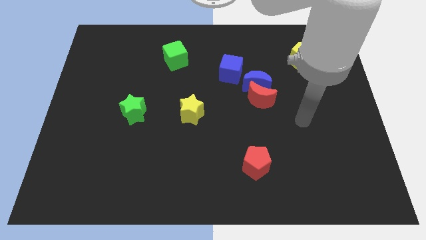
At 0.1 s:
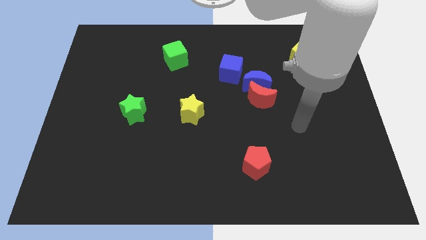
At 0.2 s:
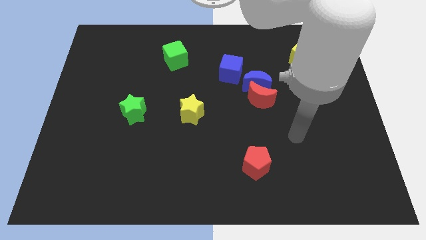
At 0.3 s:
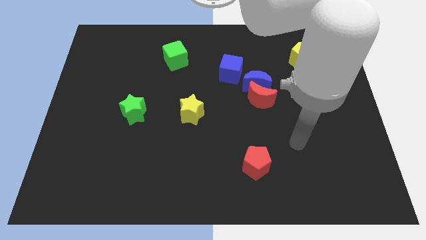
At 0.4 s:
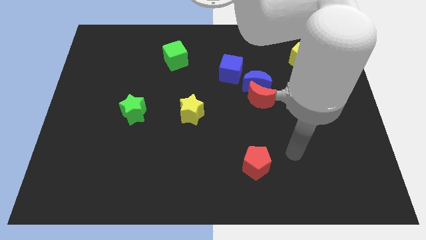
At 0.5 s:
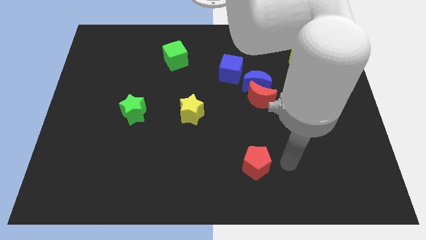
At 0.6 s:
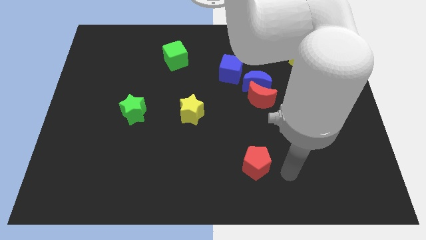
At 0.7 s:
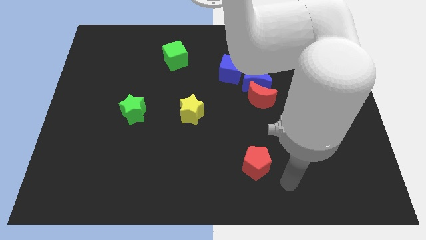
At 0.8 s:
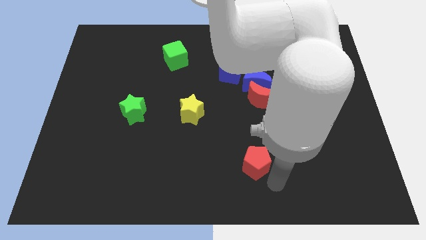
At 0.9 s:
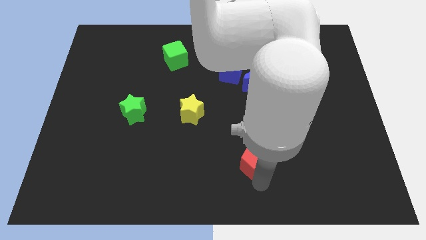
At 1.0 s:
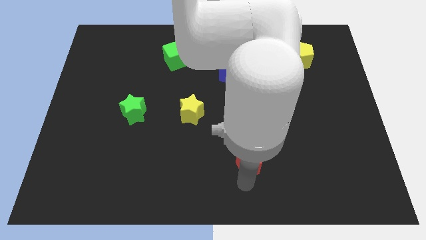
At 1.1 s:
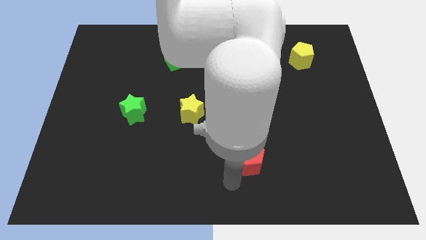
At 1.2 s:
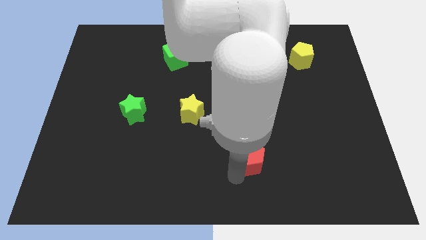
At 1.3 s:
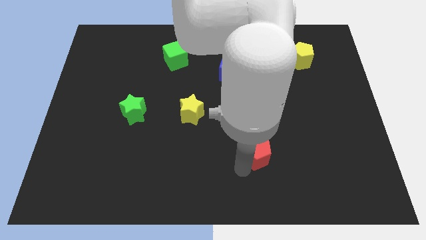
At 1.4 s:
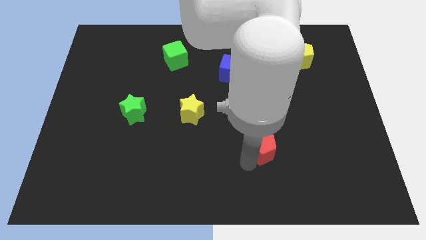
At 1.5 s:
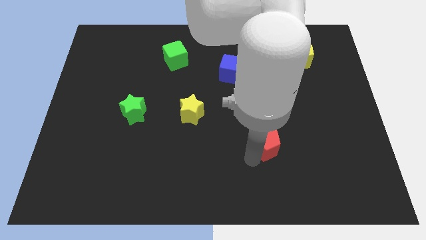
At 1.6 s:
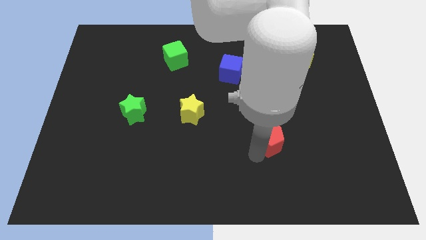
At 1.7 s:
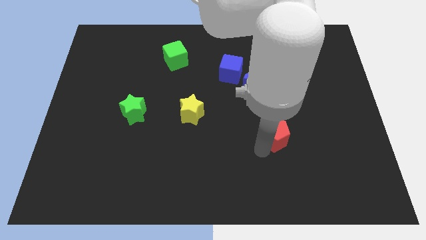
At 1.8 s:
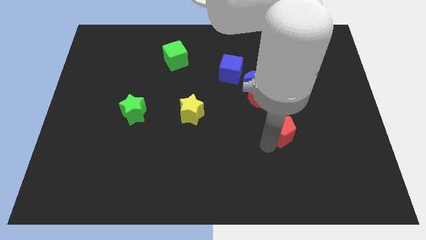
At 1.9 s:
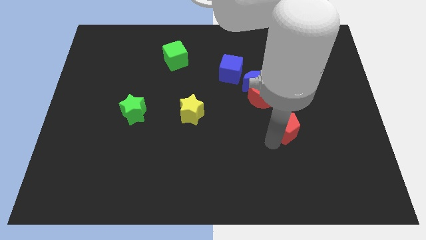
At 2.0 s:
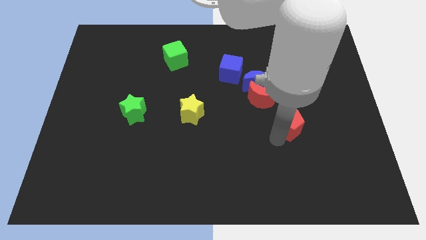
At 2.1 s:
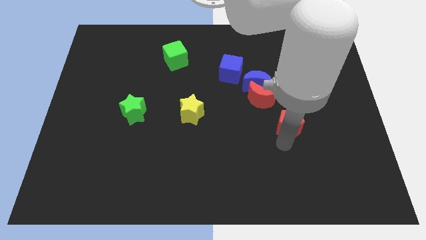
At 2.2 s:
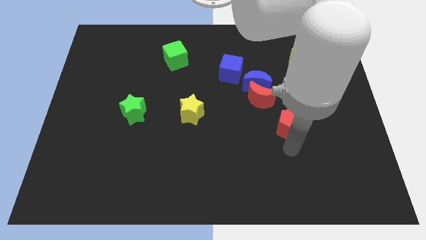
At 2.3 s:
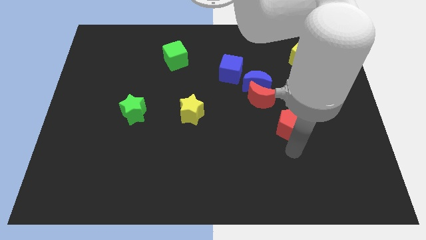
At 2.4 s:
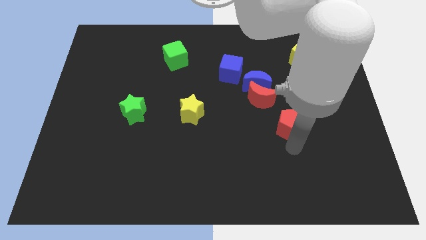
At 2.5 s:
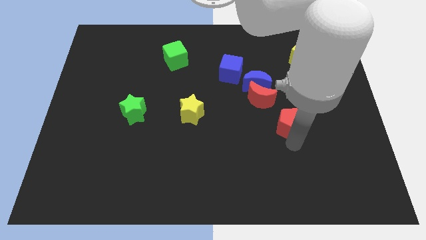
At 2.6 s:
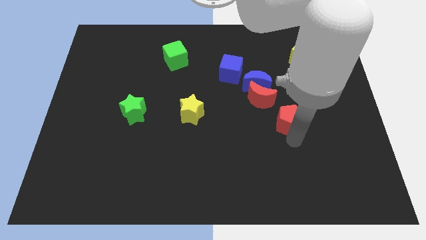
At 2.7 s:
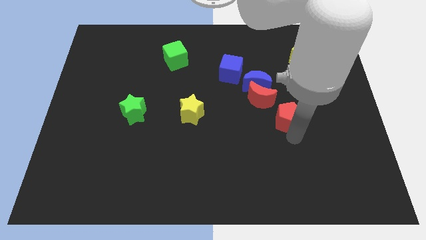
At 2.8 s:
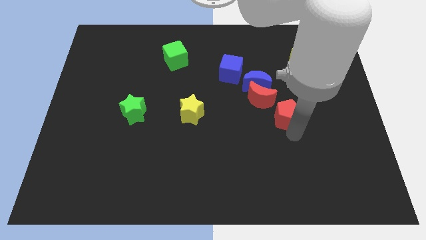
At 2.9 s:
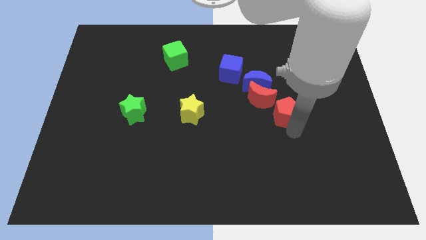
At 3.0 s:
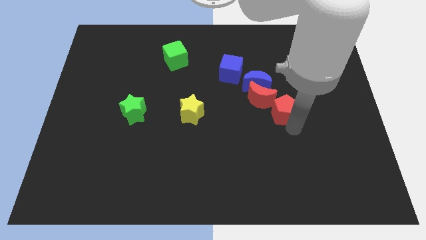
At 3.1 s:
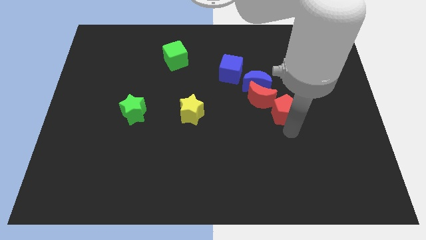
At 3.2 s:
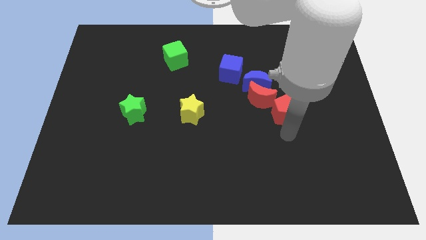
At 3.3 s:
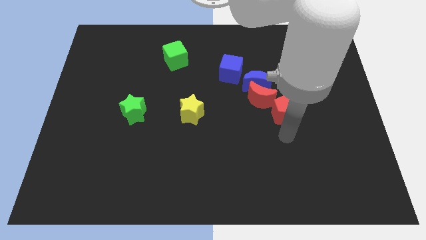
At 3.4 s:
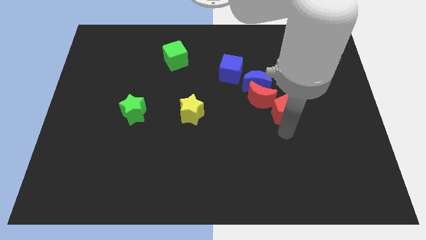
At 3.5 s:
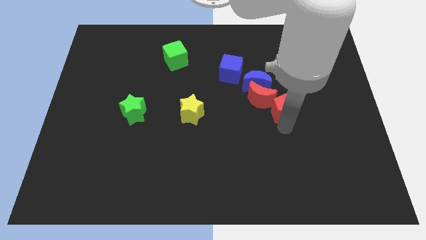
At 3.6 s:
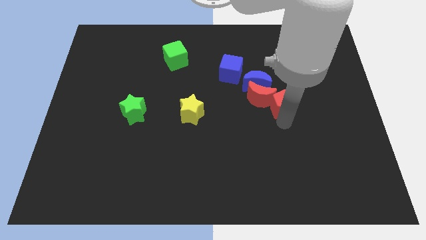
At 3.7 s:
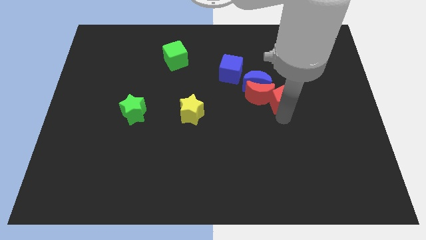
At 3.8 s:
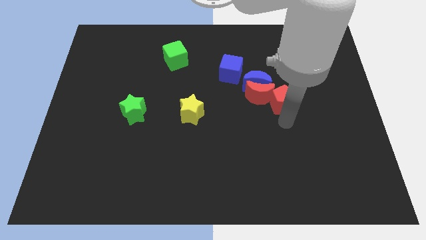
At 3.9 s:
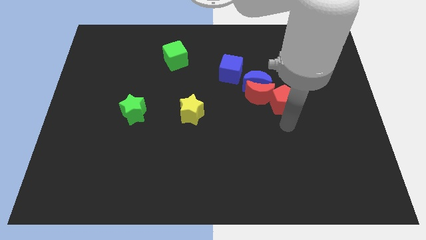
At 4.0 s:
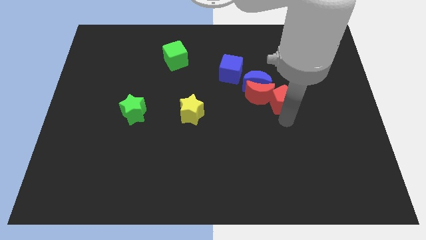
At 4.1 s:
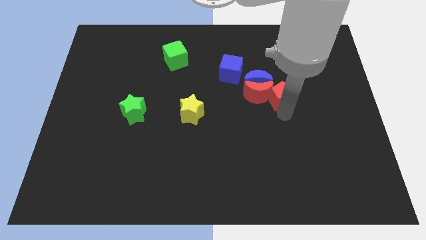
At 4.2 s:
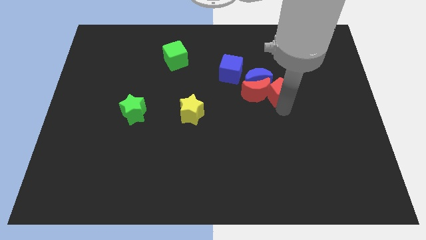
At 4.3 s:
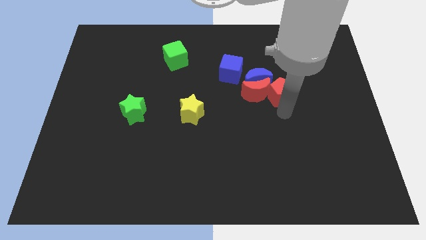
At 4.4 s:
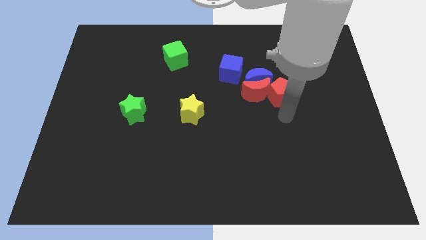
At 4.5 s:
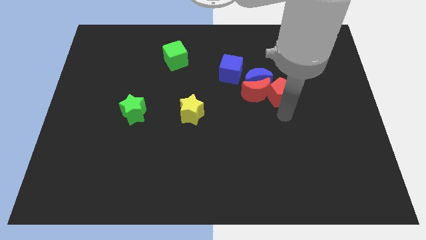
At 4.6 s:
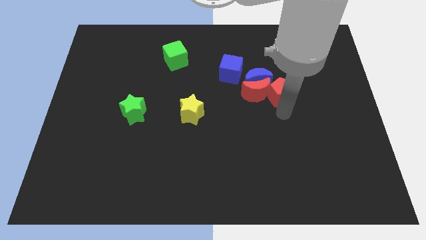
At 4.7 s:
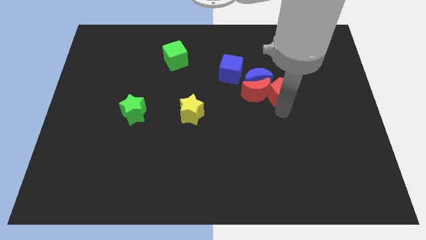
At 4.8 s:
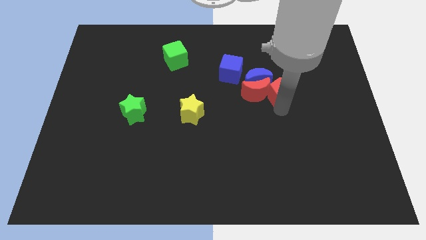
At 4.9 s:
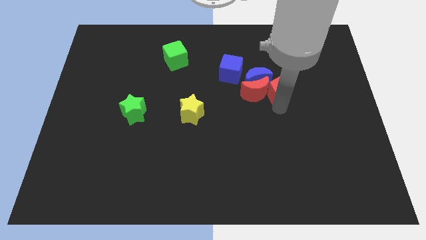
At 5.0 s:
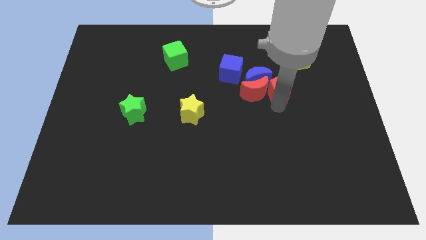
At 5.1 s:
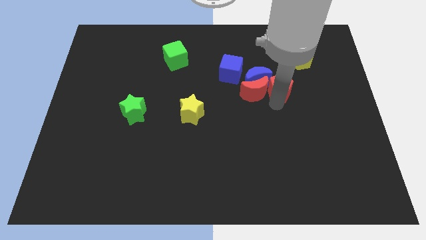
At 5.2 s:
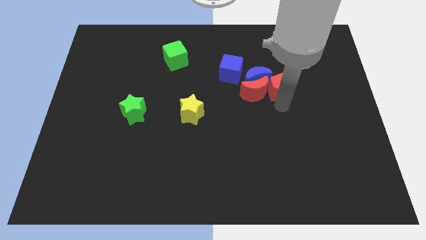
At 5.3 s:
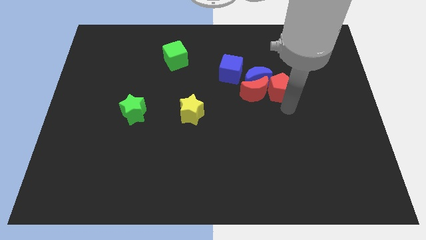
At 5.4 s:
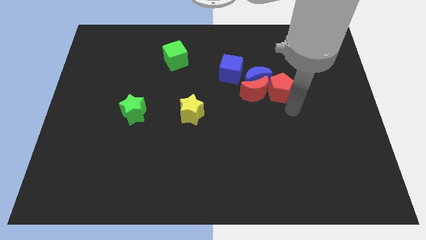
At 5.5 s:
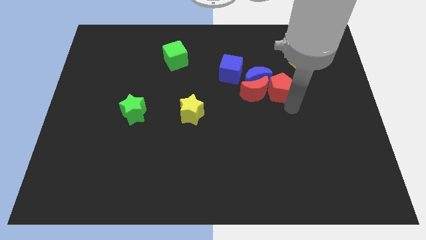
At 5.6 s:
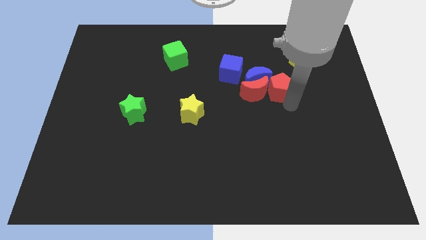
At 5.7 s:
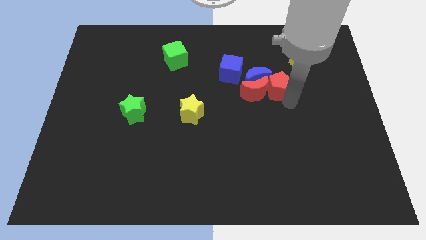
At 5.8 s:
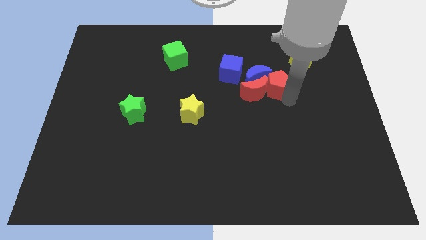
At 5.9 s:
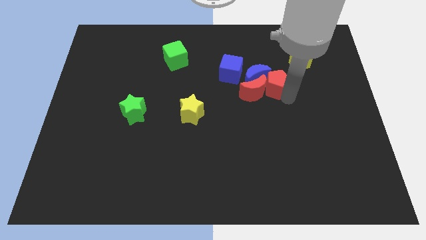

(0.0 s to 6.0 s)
slide the red pentagon up

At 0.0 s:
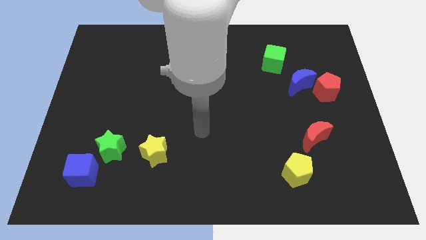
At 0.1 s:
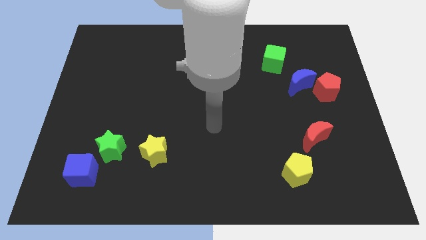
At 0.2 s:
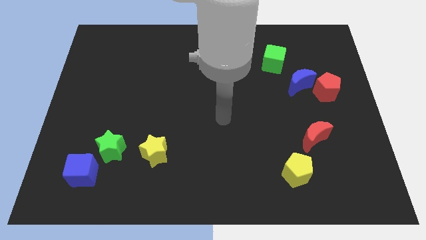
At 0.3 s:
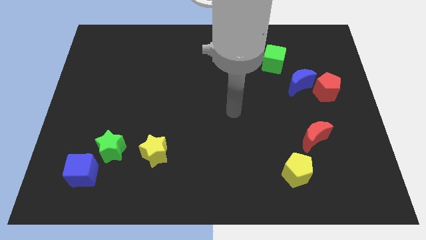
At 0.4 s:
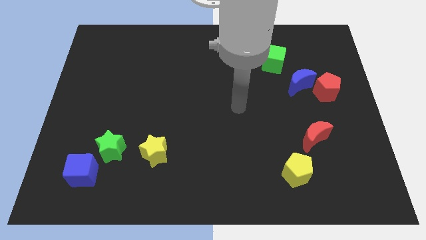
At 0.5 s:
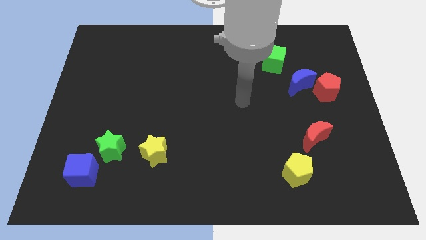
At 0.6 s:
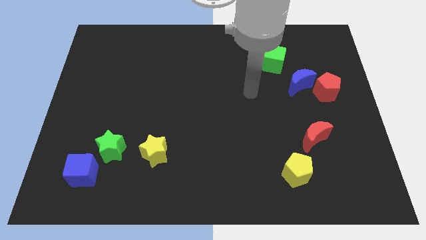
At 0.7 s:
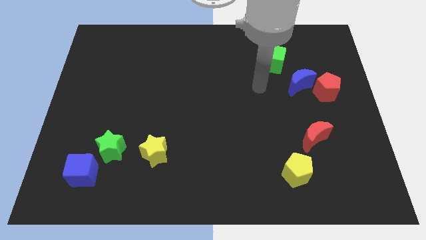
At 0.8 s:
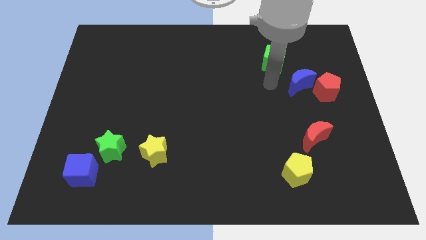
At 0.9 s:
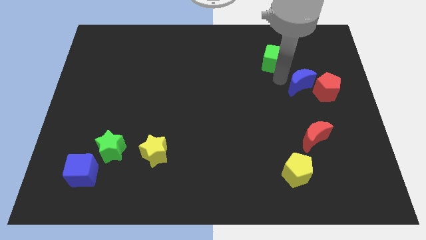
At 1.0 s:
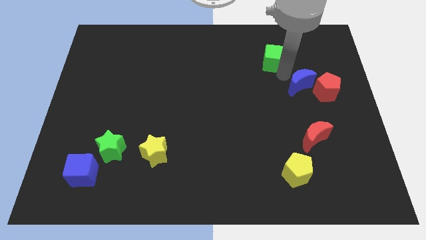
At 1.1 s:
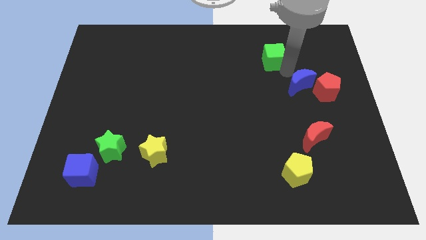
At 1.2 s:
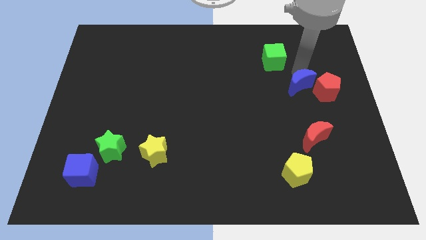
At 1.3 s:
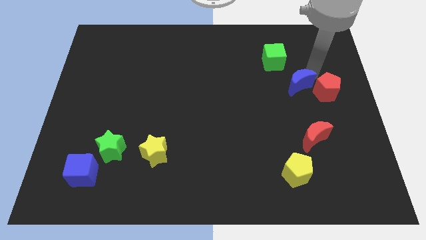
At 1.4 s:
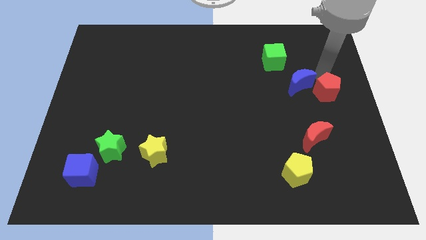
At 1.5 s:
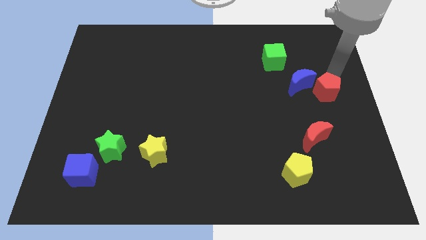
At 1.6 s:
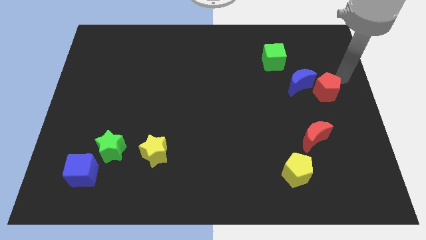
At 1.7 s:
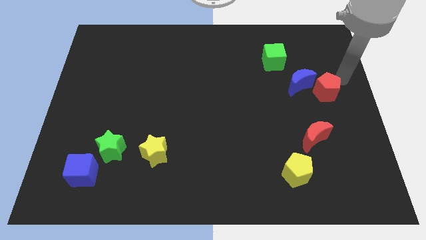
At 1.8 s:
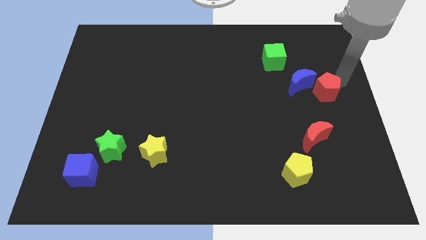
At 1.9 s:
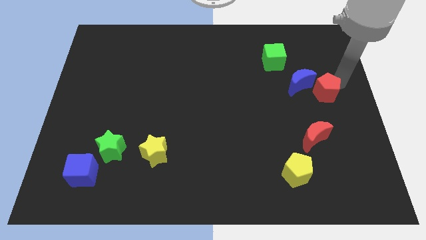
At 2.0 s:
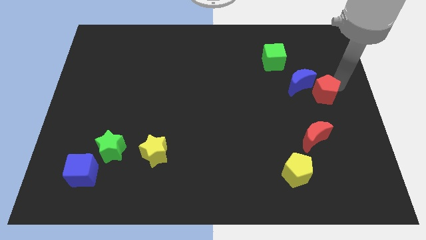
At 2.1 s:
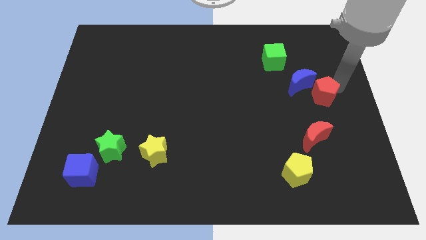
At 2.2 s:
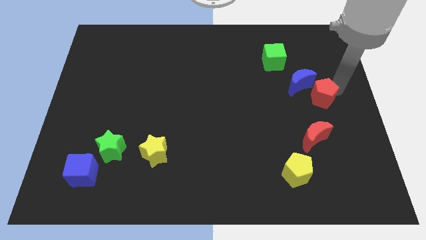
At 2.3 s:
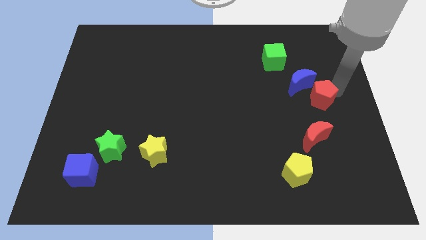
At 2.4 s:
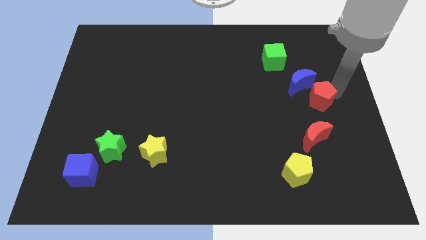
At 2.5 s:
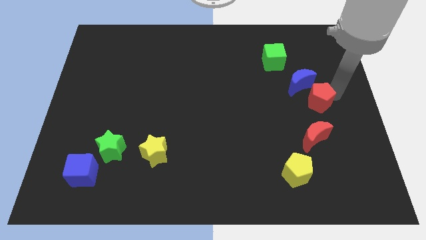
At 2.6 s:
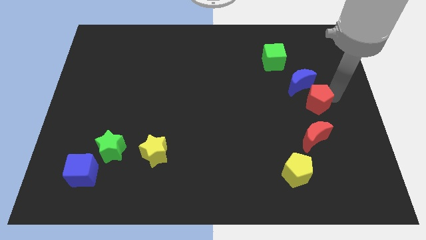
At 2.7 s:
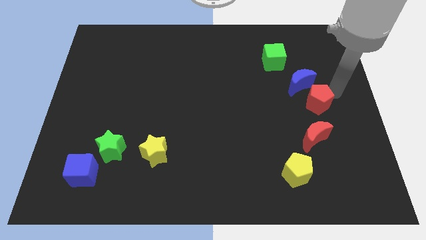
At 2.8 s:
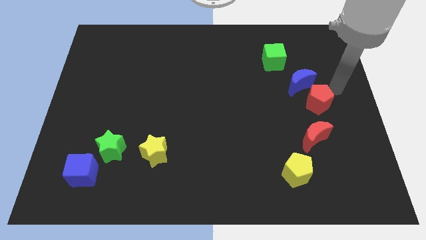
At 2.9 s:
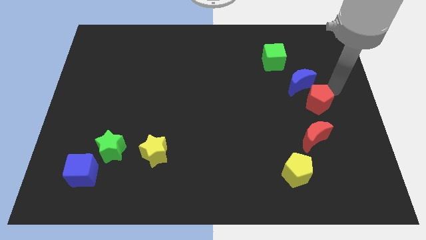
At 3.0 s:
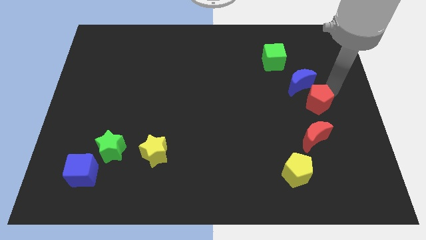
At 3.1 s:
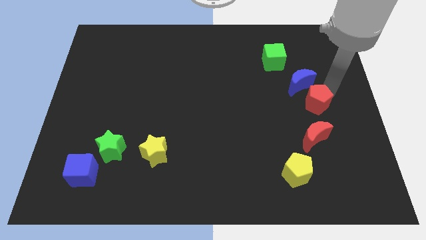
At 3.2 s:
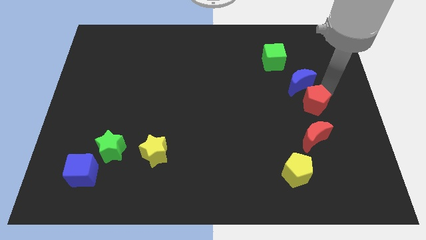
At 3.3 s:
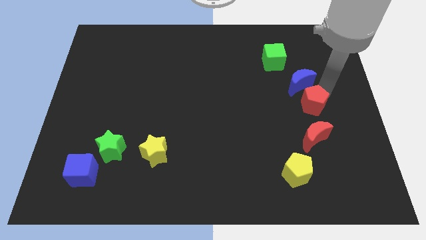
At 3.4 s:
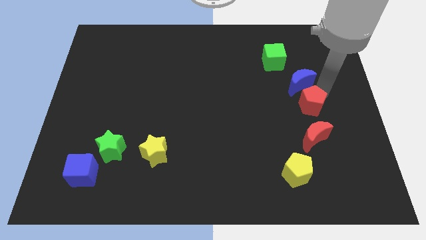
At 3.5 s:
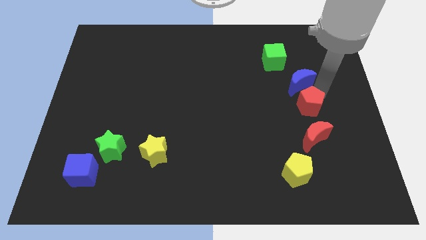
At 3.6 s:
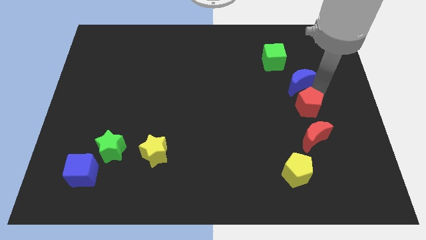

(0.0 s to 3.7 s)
slightly push the red pentagon down and left diagonally
